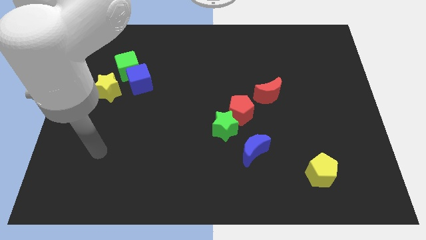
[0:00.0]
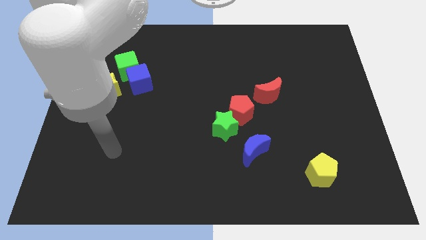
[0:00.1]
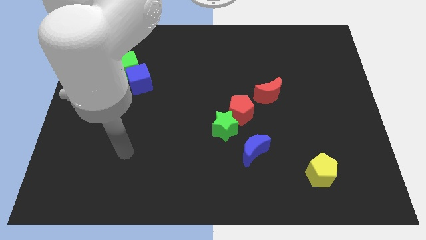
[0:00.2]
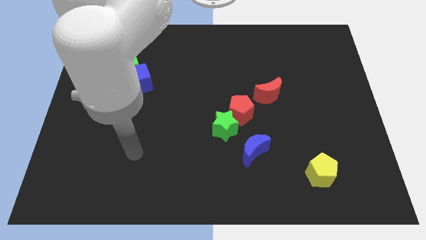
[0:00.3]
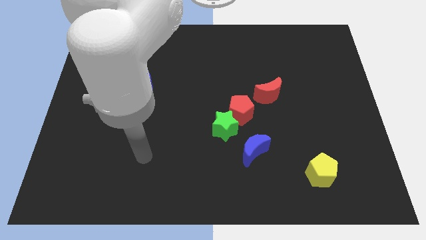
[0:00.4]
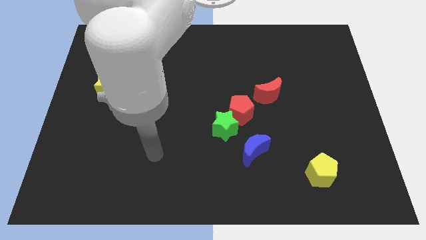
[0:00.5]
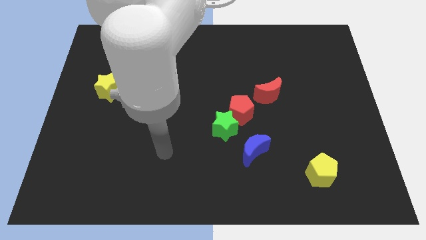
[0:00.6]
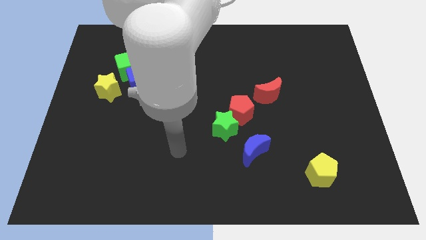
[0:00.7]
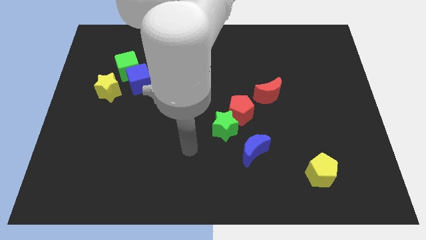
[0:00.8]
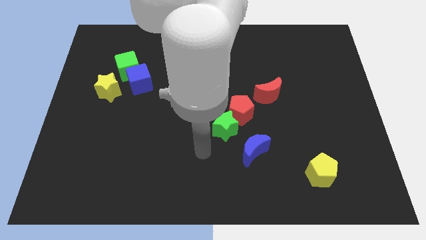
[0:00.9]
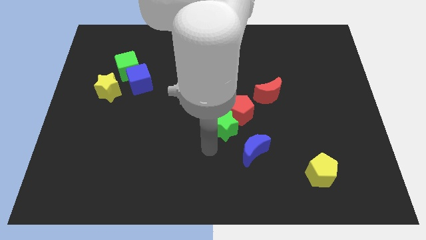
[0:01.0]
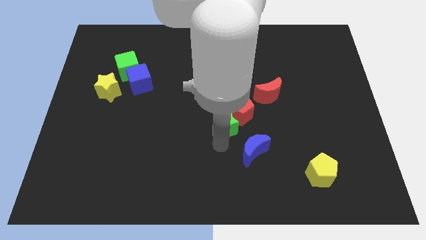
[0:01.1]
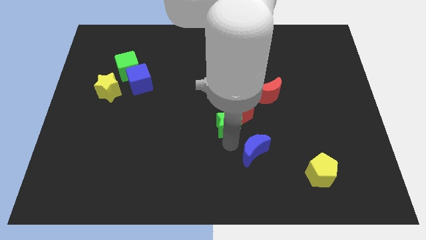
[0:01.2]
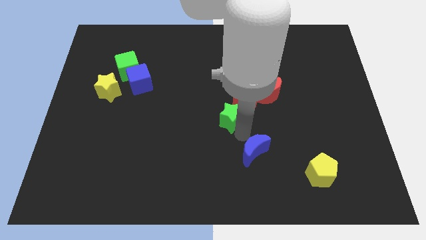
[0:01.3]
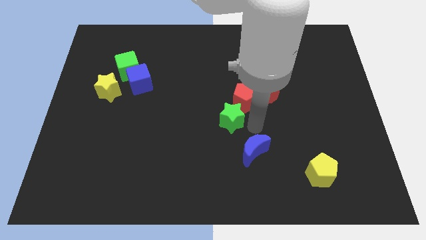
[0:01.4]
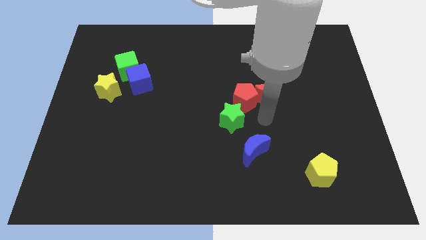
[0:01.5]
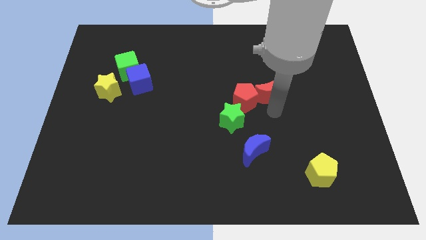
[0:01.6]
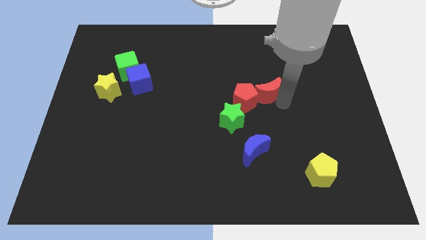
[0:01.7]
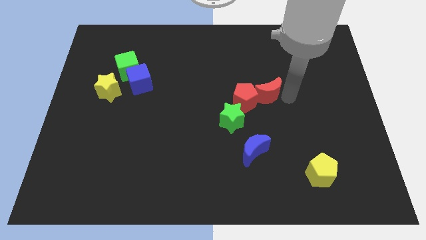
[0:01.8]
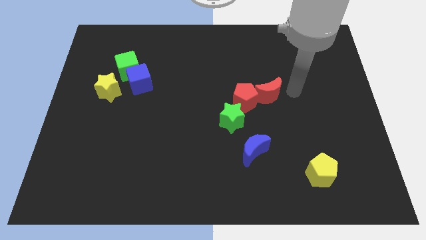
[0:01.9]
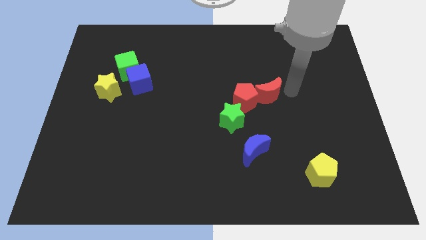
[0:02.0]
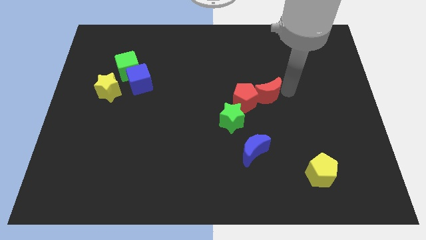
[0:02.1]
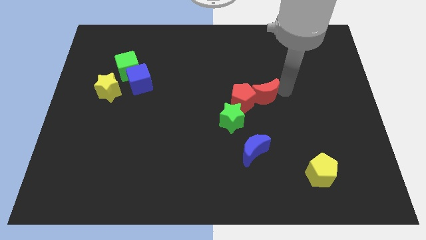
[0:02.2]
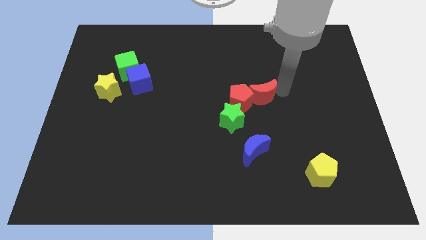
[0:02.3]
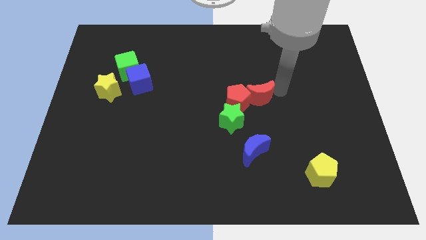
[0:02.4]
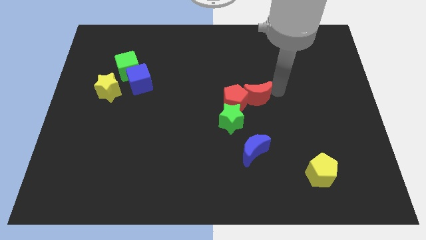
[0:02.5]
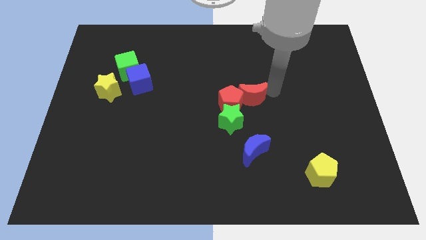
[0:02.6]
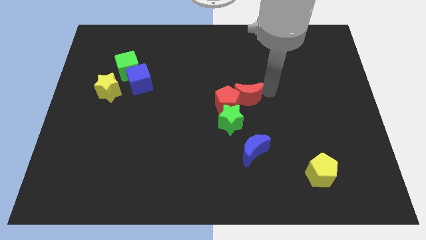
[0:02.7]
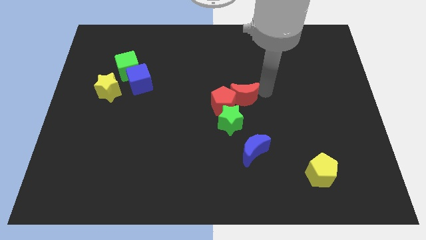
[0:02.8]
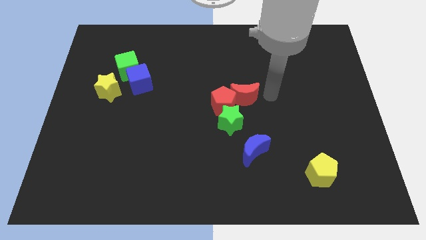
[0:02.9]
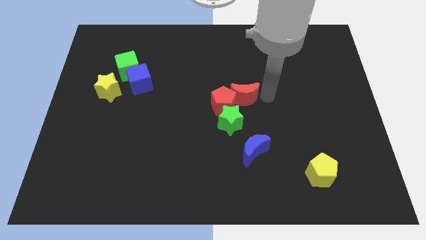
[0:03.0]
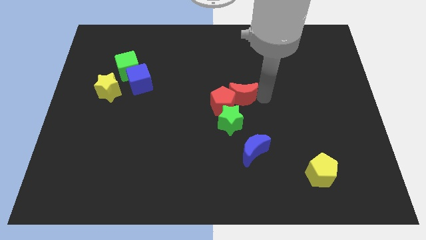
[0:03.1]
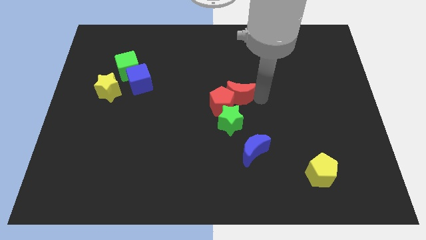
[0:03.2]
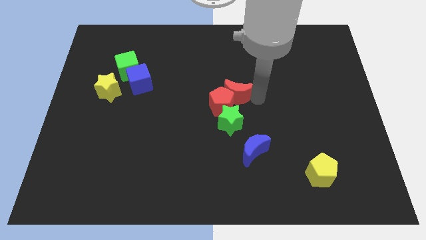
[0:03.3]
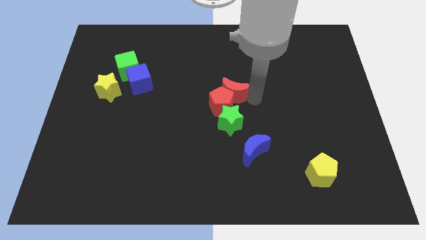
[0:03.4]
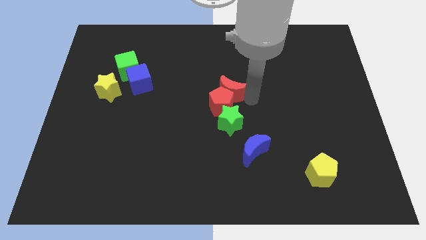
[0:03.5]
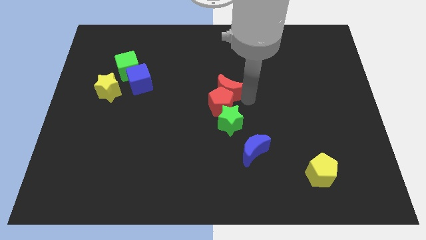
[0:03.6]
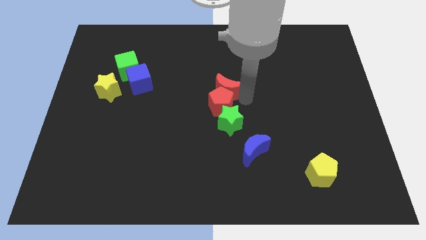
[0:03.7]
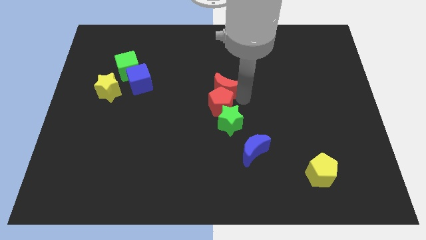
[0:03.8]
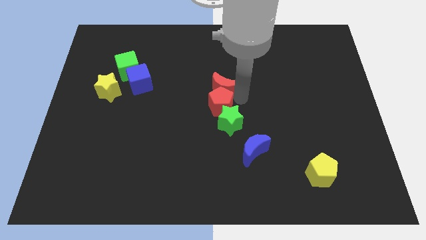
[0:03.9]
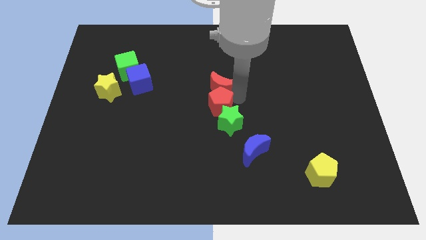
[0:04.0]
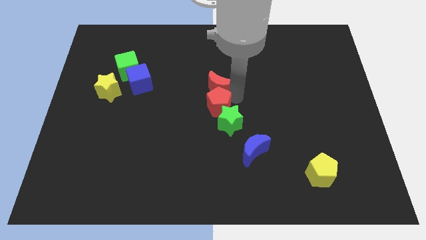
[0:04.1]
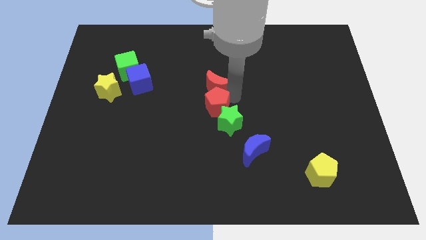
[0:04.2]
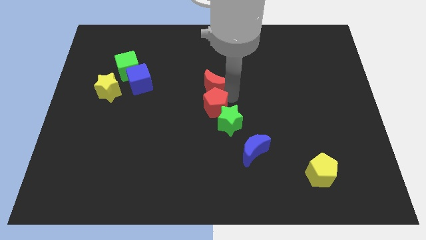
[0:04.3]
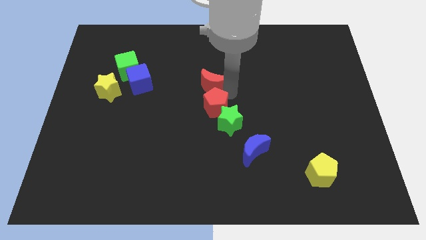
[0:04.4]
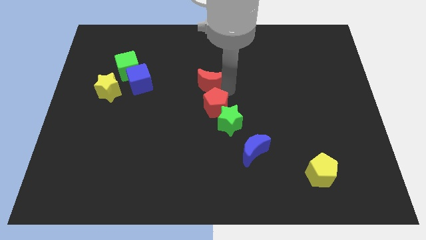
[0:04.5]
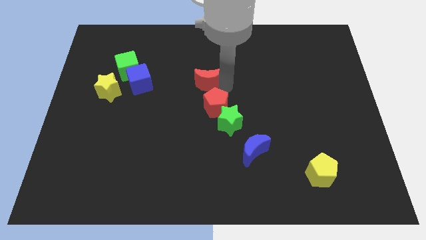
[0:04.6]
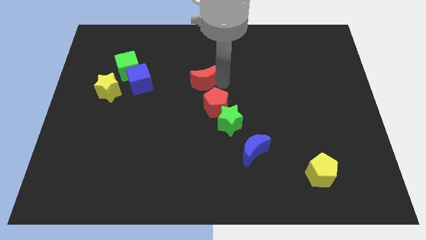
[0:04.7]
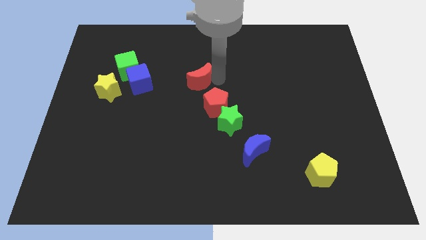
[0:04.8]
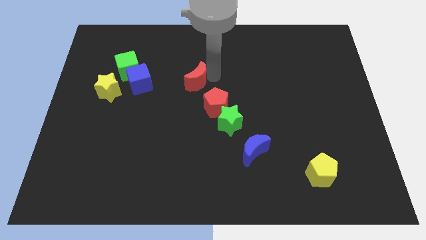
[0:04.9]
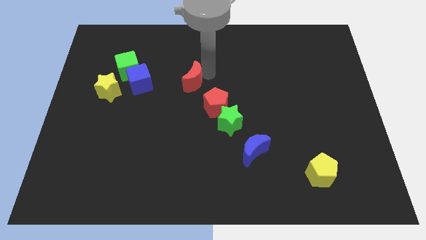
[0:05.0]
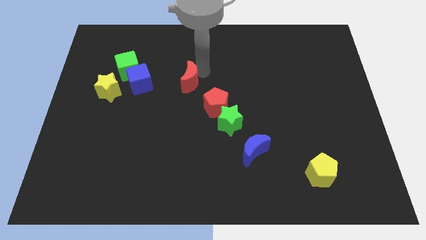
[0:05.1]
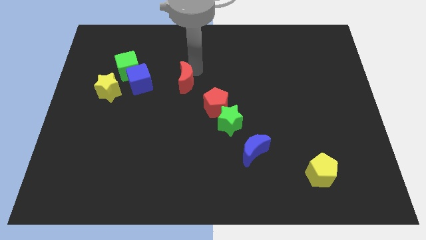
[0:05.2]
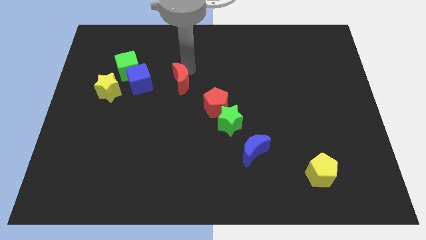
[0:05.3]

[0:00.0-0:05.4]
slide the red moon left

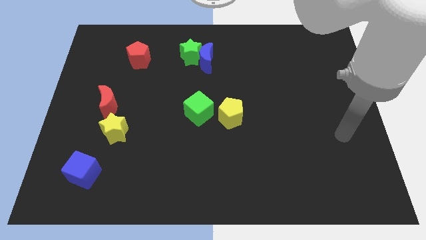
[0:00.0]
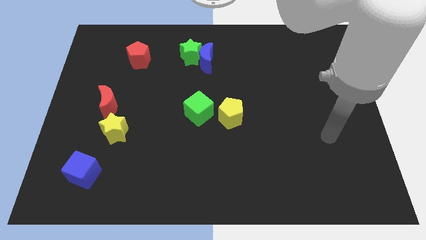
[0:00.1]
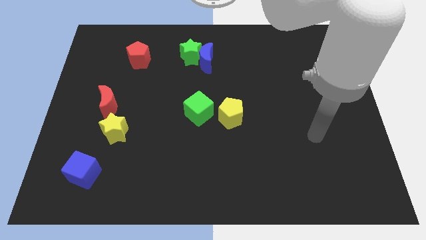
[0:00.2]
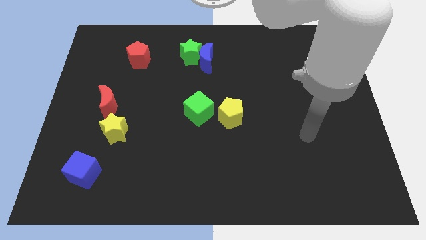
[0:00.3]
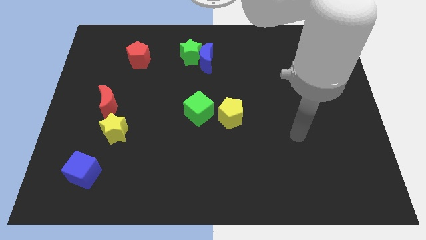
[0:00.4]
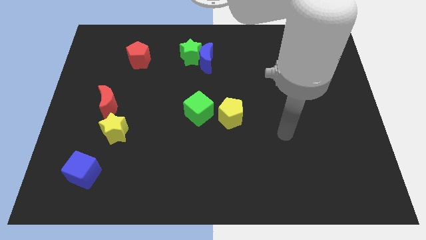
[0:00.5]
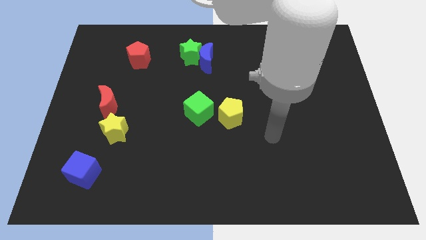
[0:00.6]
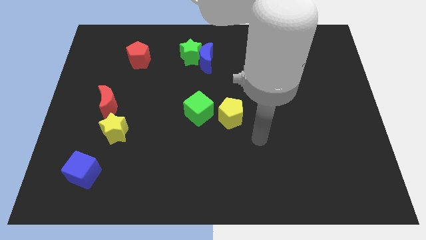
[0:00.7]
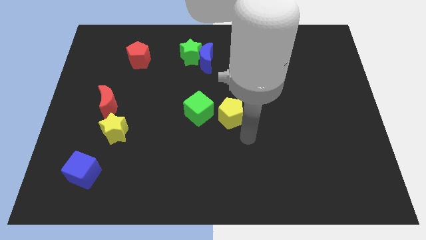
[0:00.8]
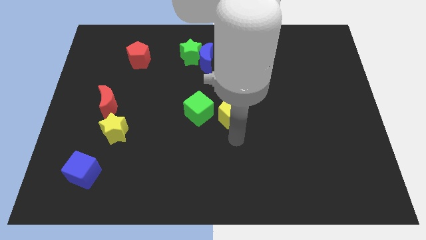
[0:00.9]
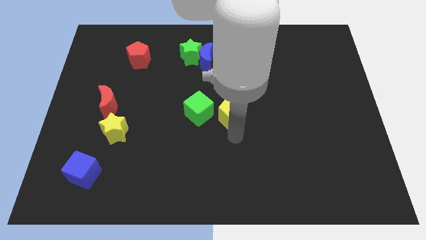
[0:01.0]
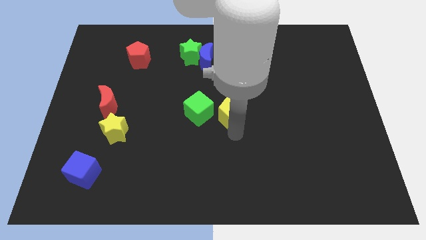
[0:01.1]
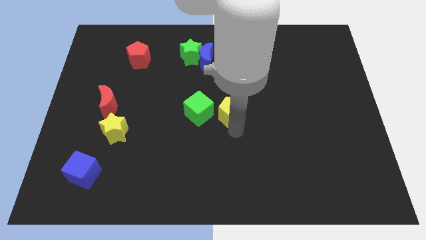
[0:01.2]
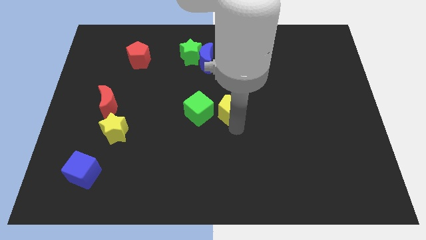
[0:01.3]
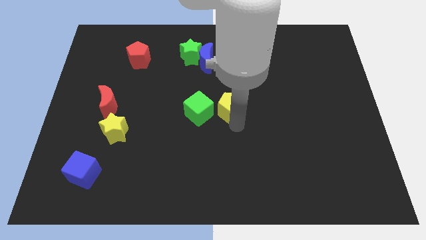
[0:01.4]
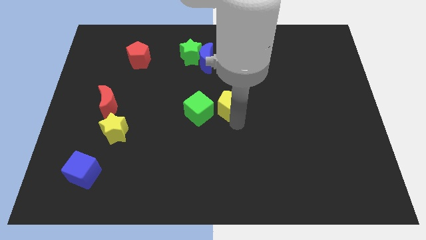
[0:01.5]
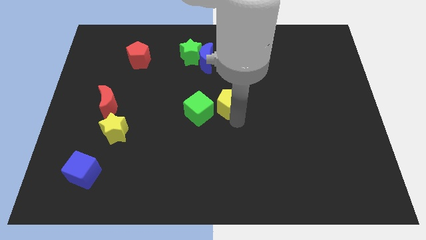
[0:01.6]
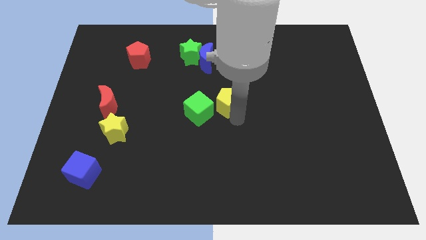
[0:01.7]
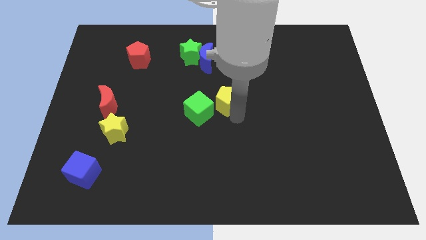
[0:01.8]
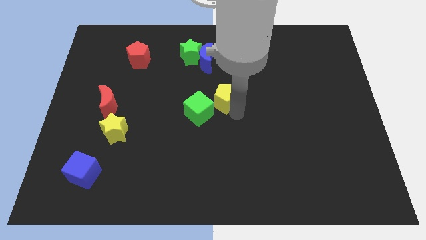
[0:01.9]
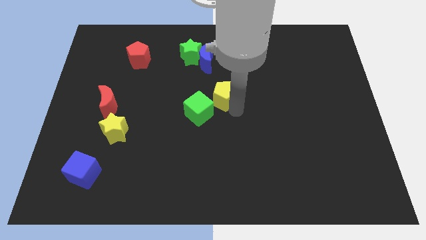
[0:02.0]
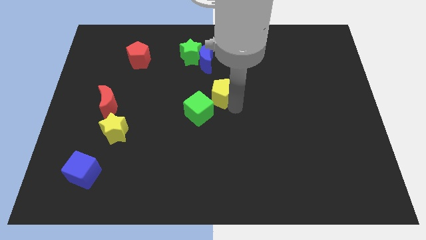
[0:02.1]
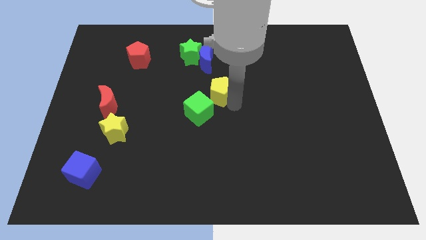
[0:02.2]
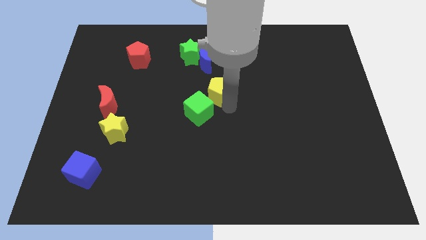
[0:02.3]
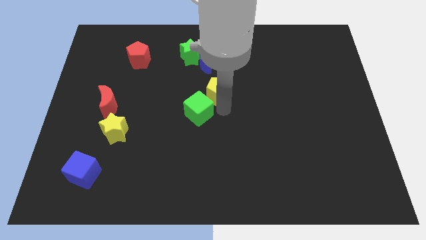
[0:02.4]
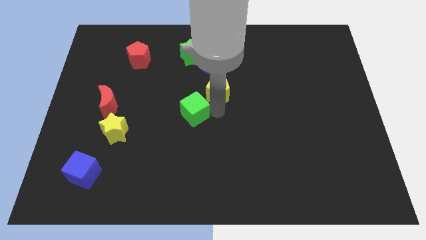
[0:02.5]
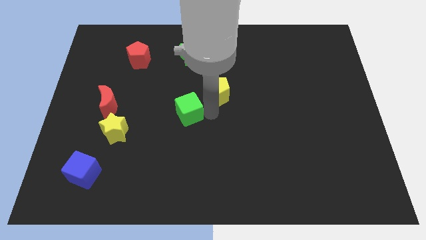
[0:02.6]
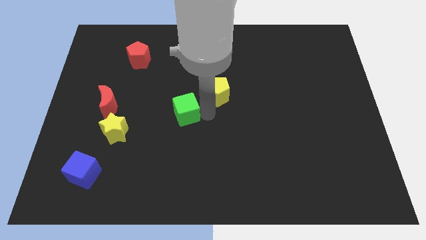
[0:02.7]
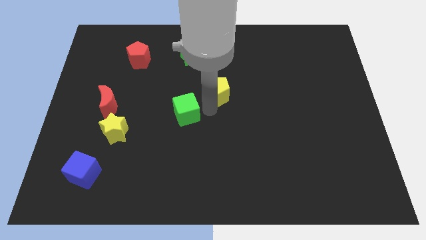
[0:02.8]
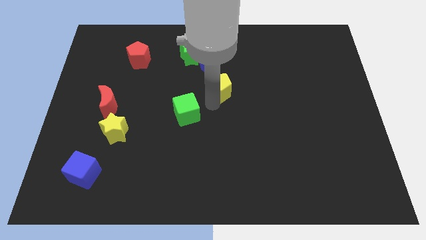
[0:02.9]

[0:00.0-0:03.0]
slightly push the yellow pentagon up
